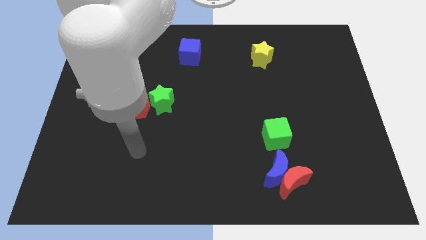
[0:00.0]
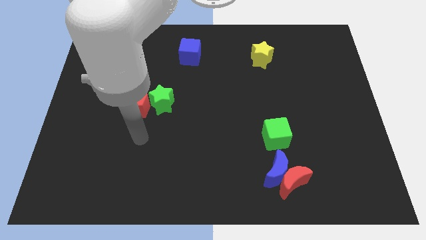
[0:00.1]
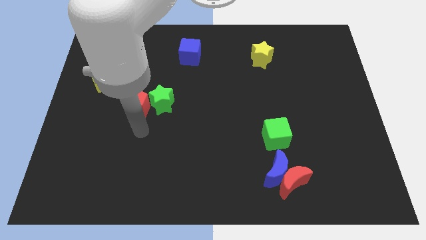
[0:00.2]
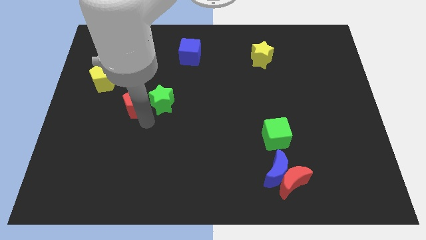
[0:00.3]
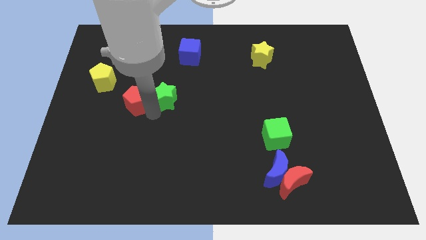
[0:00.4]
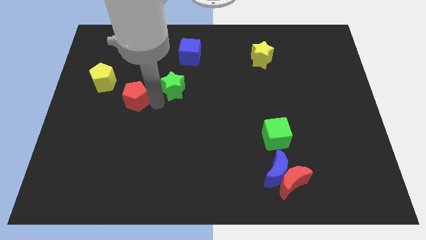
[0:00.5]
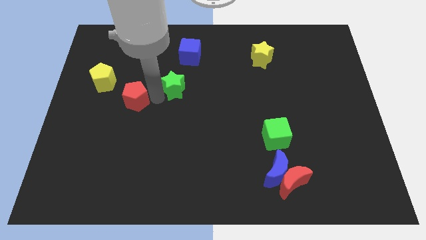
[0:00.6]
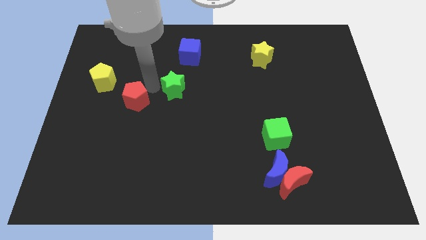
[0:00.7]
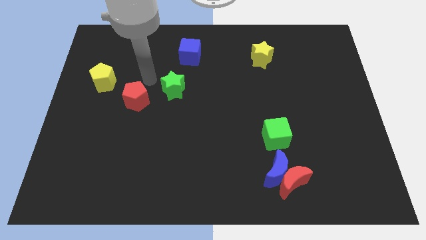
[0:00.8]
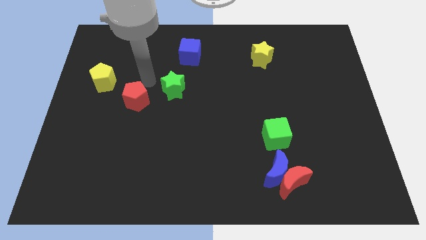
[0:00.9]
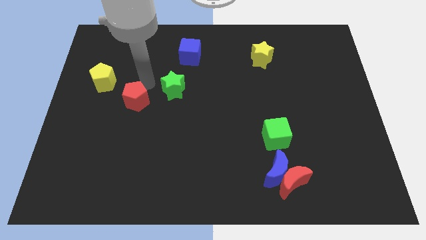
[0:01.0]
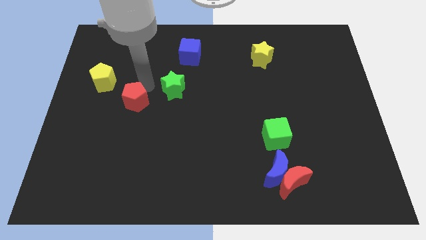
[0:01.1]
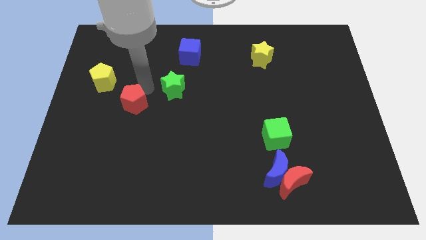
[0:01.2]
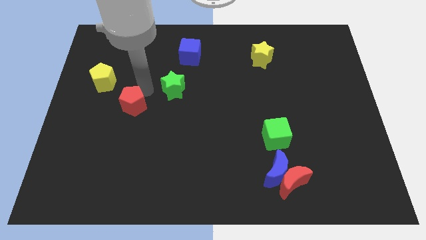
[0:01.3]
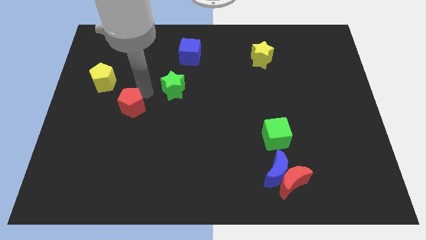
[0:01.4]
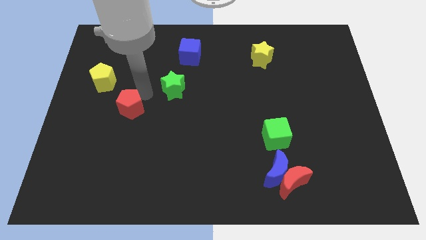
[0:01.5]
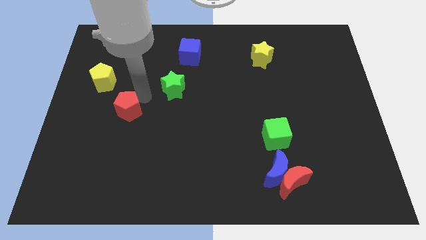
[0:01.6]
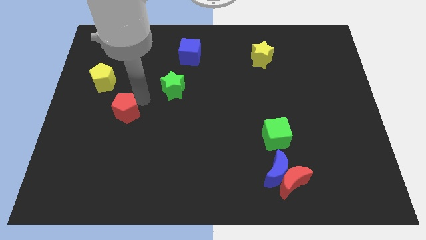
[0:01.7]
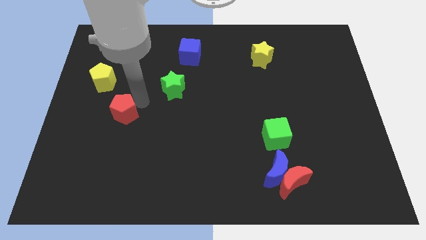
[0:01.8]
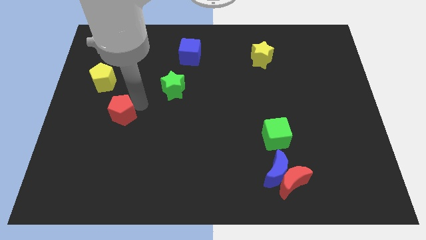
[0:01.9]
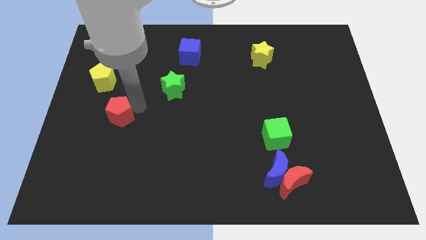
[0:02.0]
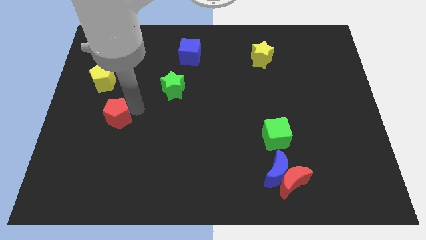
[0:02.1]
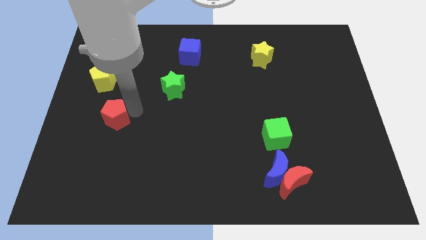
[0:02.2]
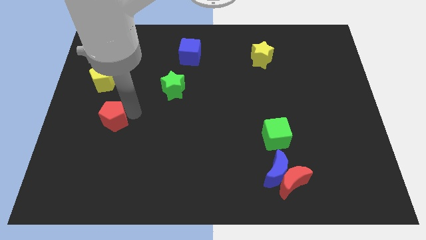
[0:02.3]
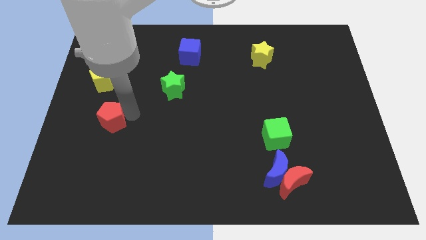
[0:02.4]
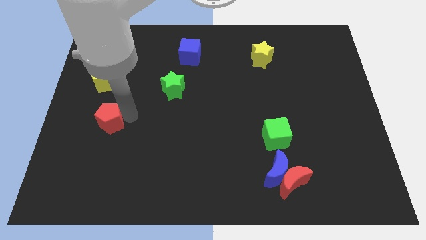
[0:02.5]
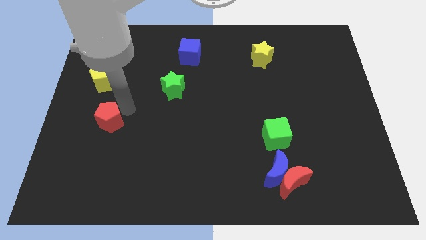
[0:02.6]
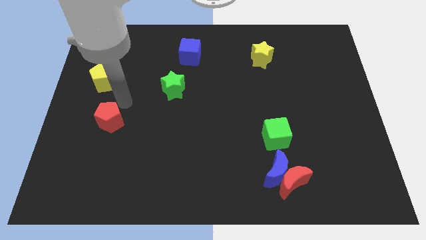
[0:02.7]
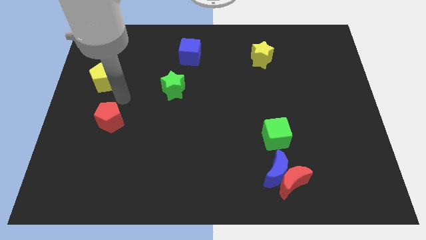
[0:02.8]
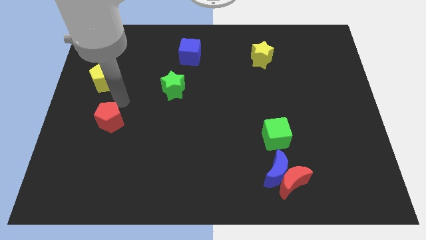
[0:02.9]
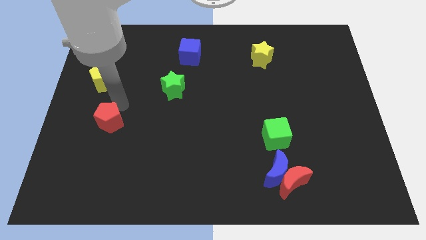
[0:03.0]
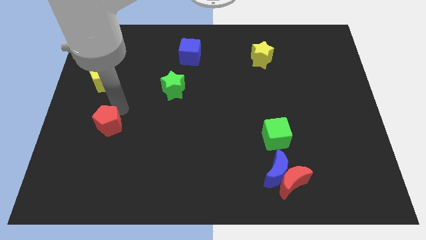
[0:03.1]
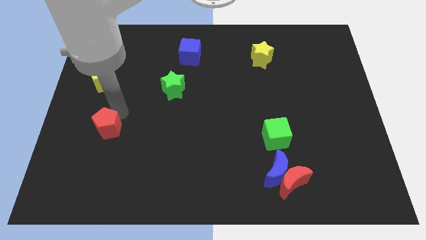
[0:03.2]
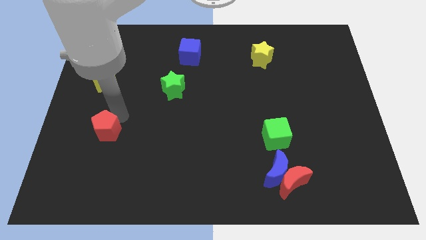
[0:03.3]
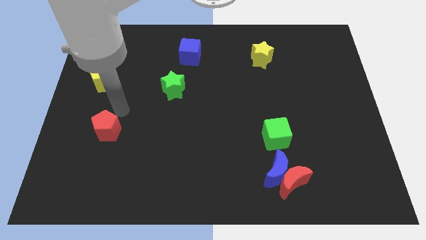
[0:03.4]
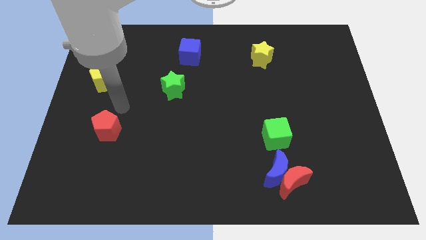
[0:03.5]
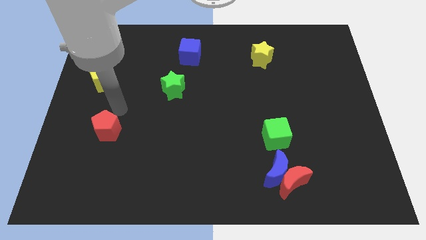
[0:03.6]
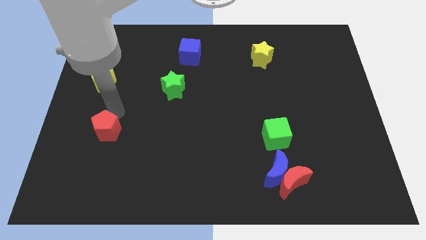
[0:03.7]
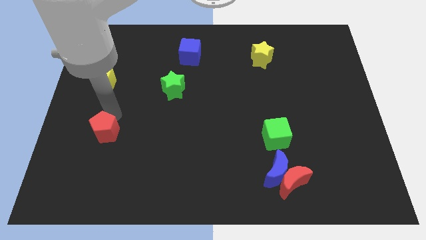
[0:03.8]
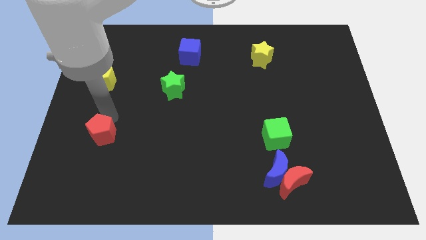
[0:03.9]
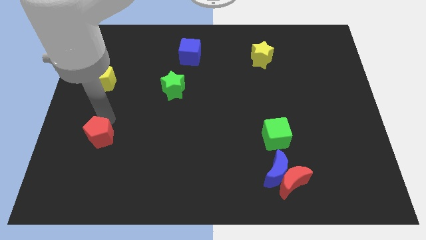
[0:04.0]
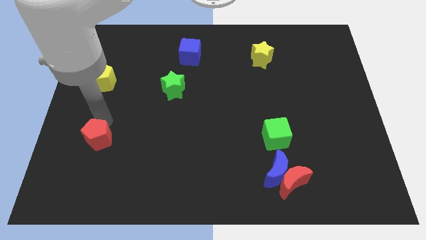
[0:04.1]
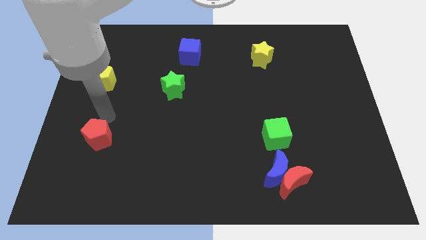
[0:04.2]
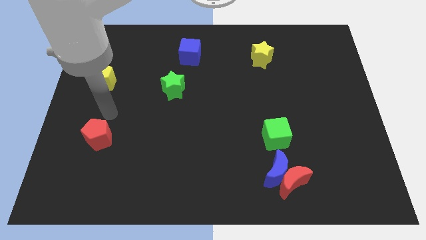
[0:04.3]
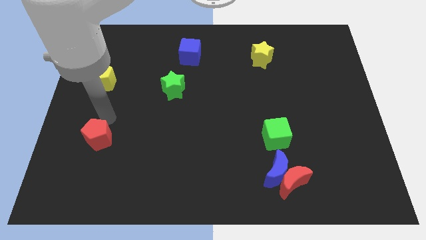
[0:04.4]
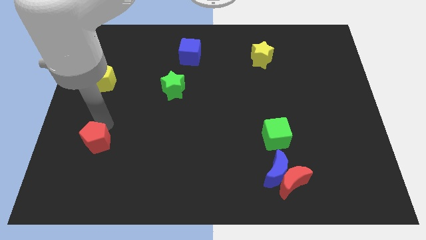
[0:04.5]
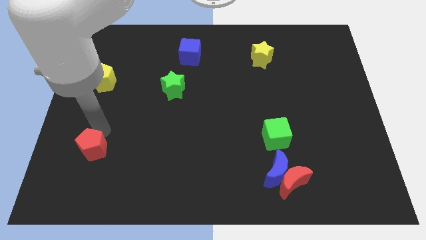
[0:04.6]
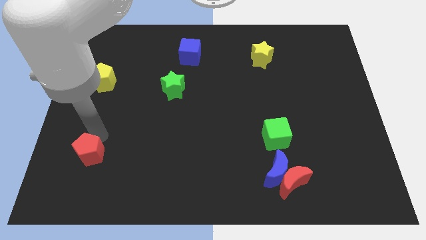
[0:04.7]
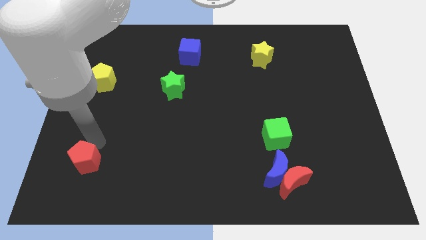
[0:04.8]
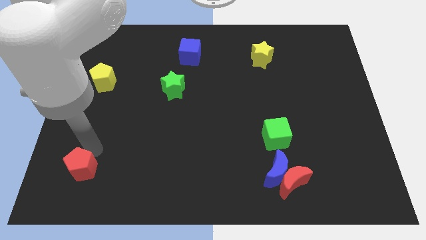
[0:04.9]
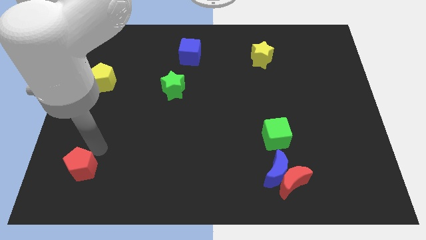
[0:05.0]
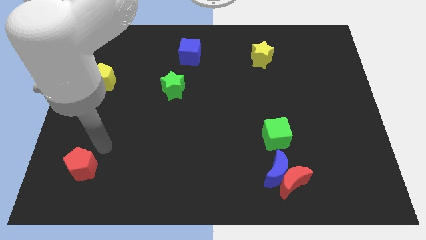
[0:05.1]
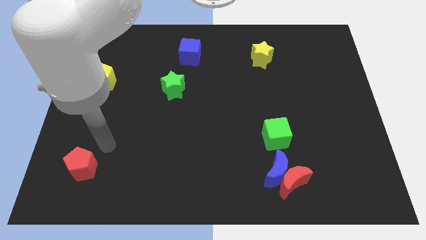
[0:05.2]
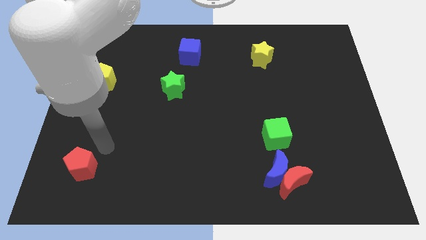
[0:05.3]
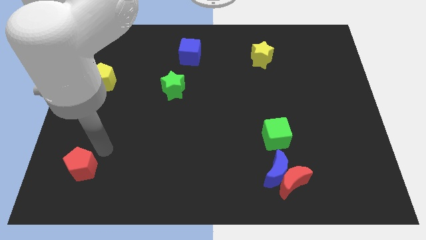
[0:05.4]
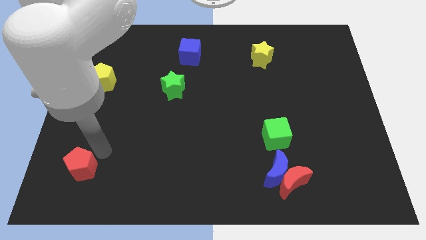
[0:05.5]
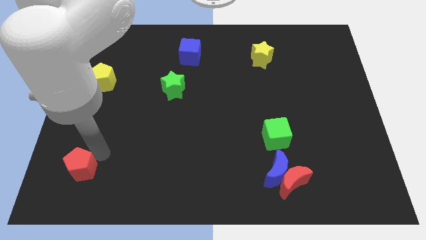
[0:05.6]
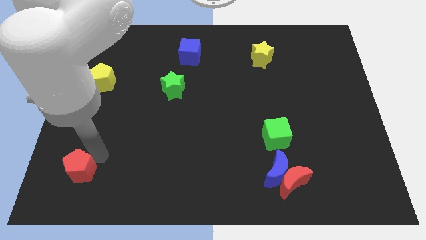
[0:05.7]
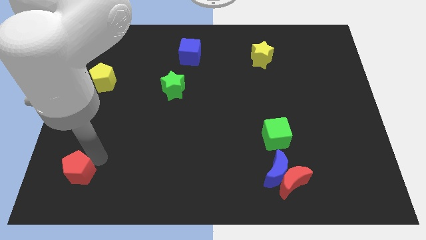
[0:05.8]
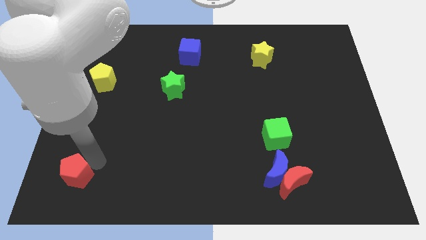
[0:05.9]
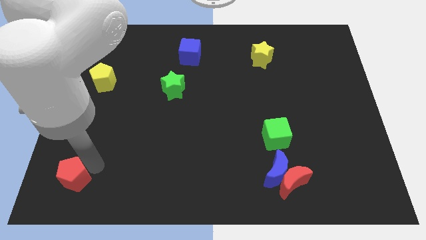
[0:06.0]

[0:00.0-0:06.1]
slide the red pentagon to the lower left corner
